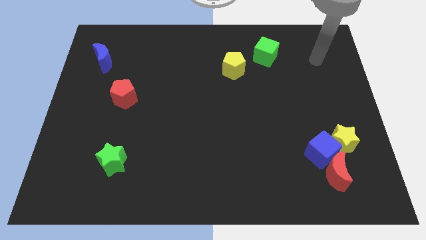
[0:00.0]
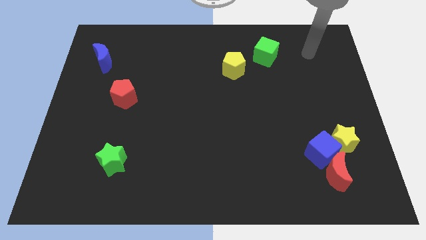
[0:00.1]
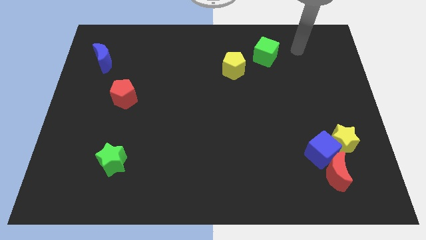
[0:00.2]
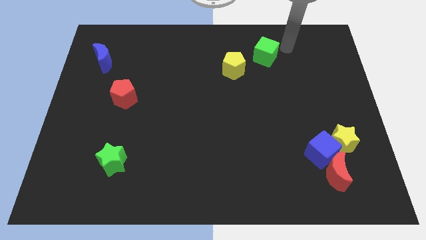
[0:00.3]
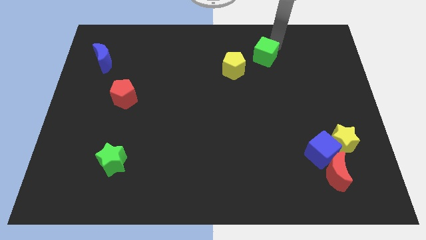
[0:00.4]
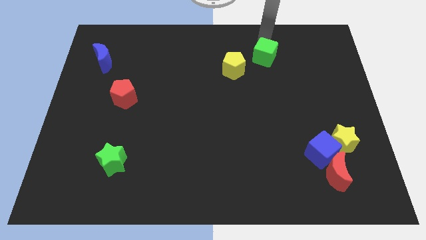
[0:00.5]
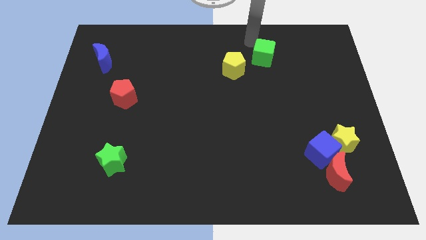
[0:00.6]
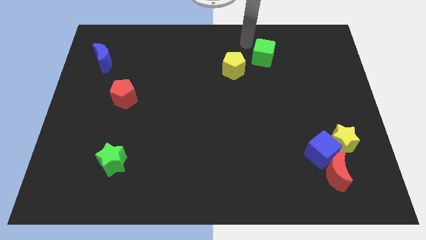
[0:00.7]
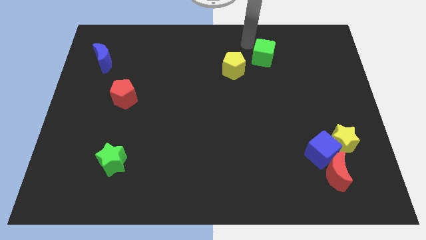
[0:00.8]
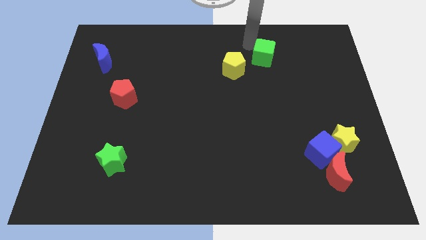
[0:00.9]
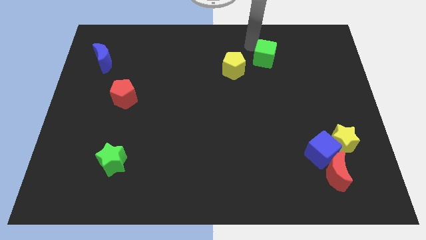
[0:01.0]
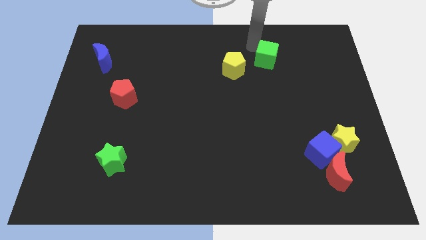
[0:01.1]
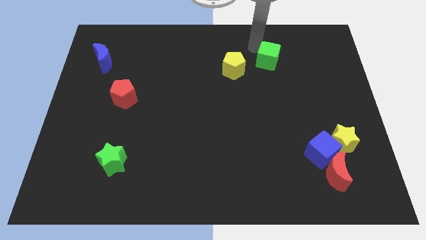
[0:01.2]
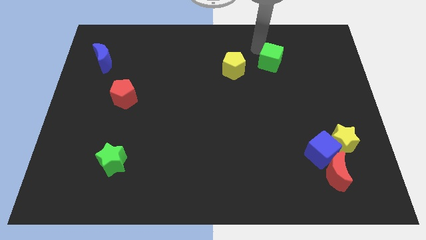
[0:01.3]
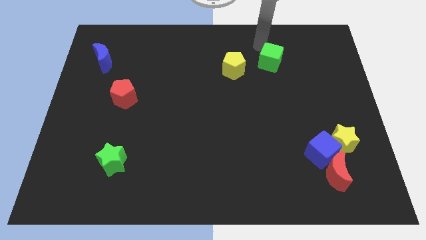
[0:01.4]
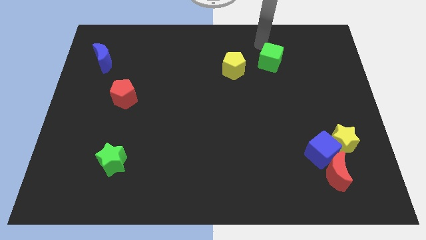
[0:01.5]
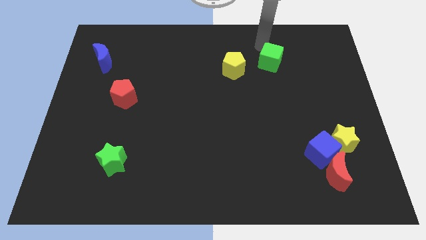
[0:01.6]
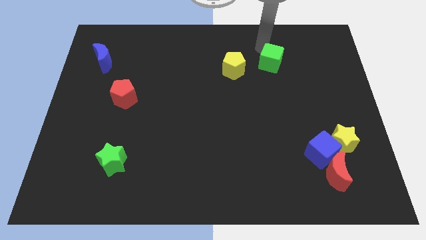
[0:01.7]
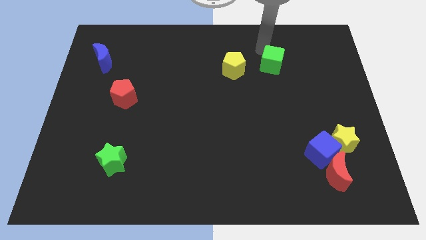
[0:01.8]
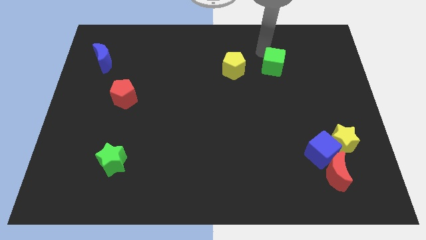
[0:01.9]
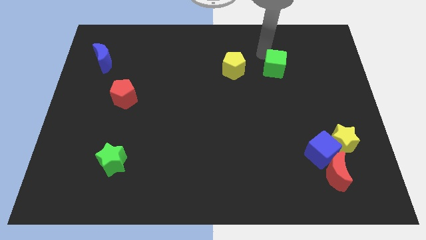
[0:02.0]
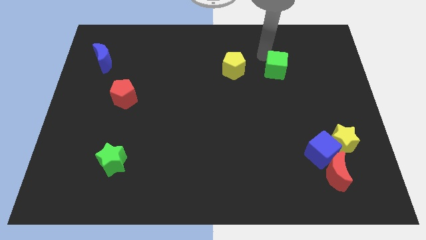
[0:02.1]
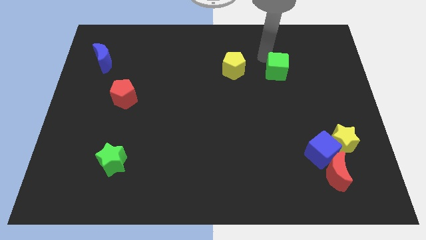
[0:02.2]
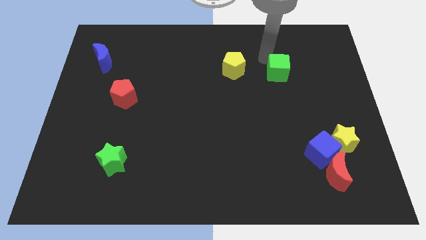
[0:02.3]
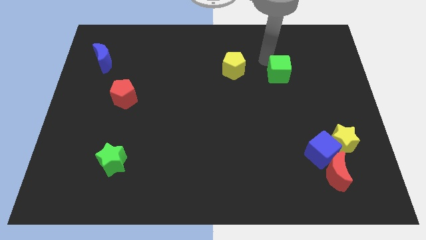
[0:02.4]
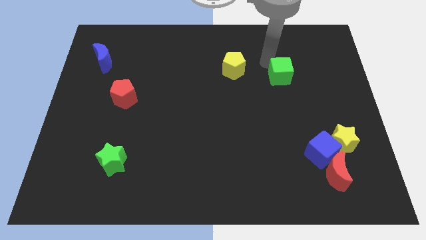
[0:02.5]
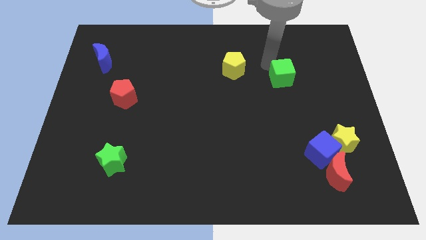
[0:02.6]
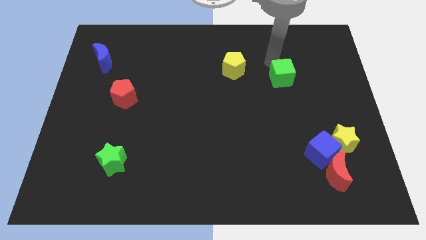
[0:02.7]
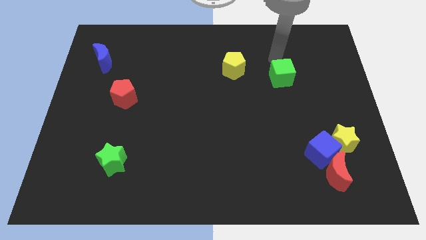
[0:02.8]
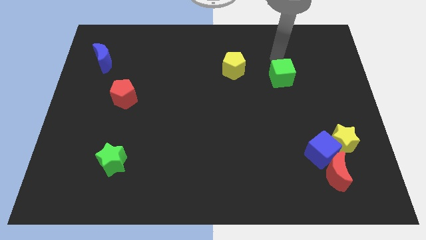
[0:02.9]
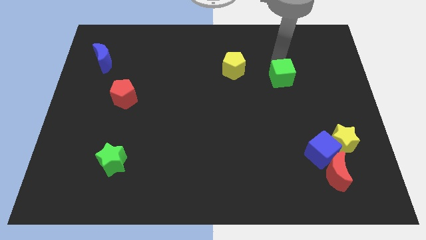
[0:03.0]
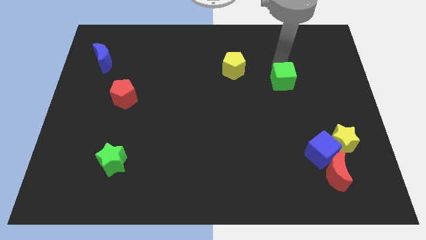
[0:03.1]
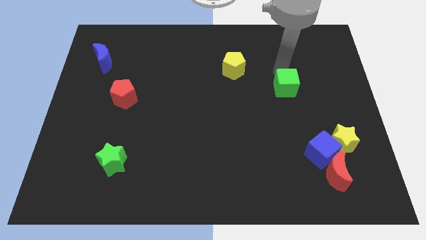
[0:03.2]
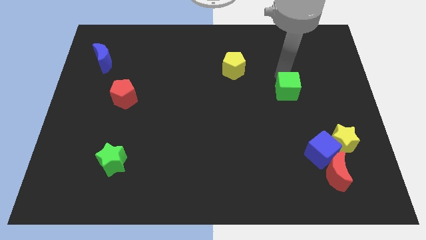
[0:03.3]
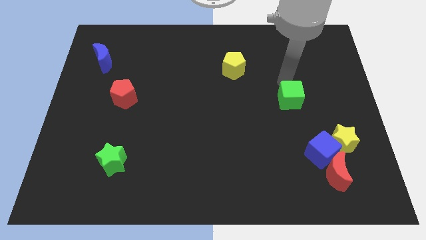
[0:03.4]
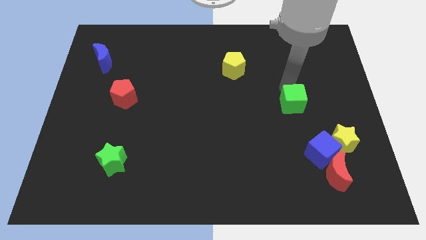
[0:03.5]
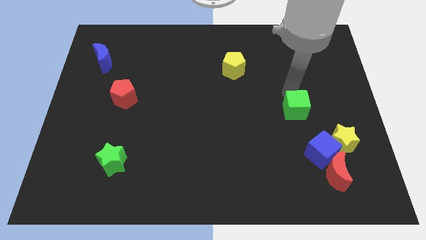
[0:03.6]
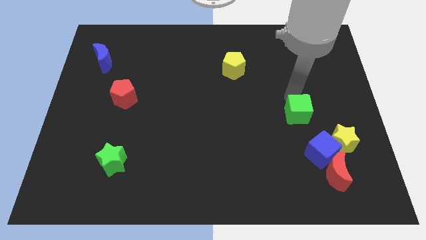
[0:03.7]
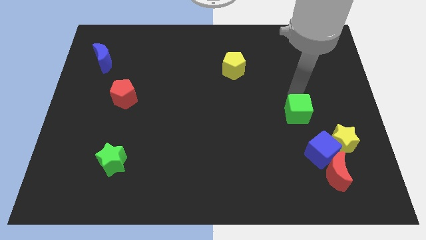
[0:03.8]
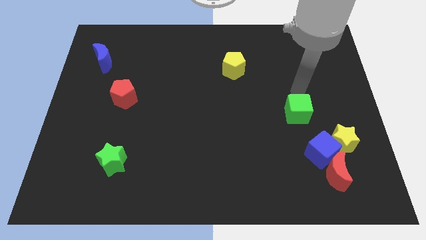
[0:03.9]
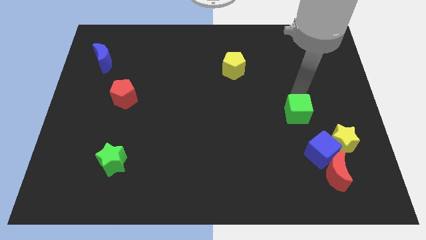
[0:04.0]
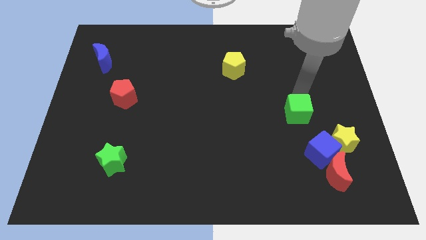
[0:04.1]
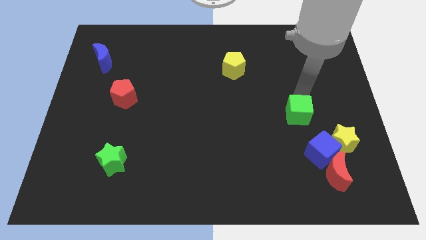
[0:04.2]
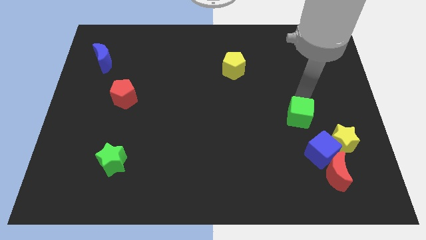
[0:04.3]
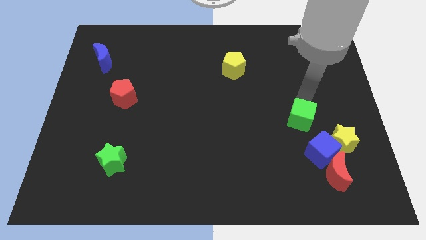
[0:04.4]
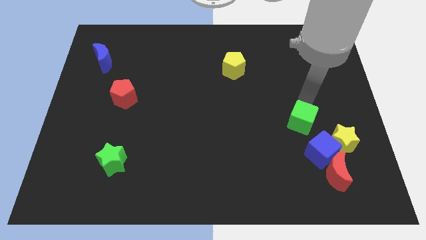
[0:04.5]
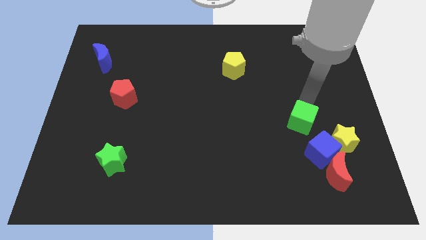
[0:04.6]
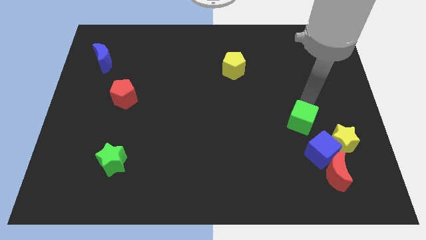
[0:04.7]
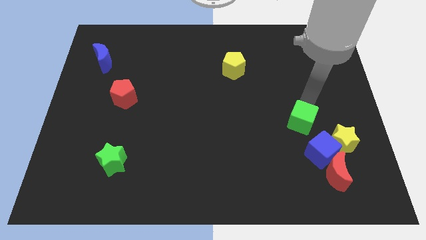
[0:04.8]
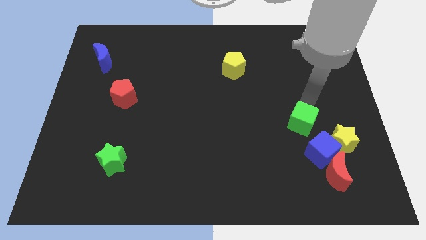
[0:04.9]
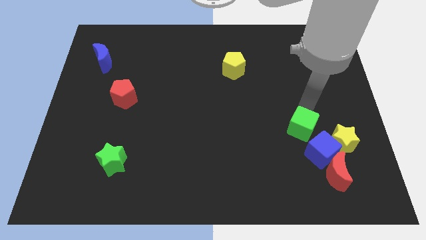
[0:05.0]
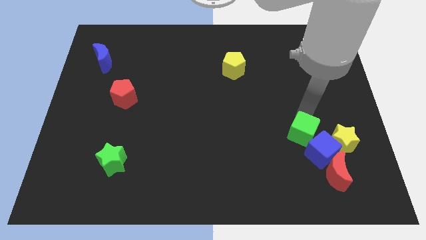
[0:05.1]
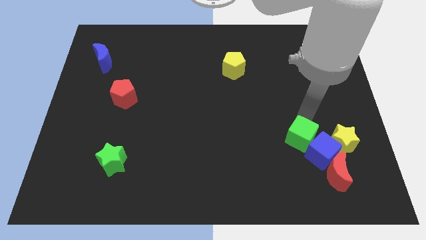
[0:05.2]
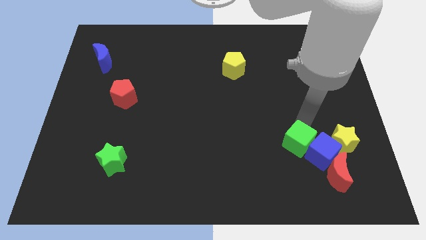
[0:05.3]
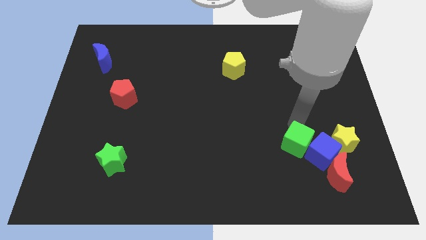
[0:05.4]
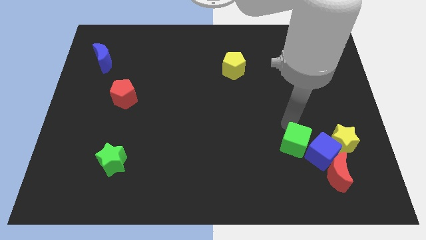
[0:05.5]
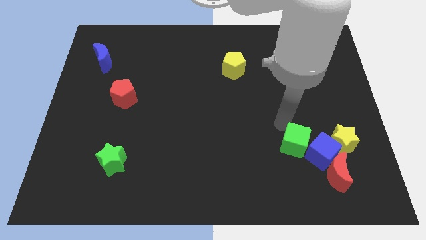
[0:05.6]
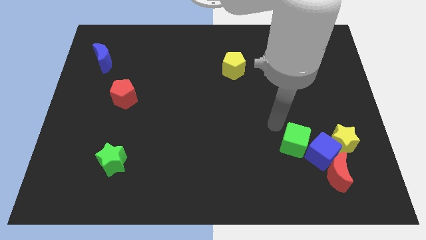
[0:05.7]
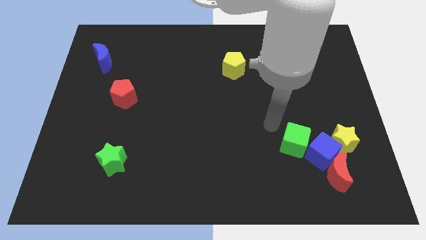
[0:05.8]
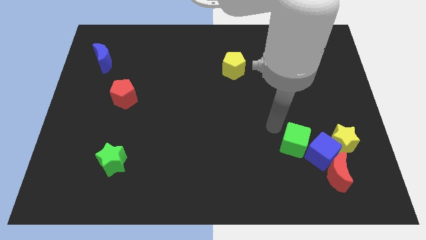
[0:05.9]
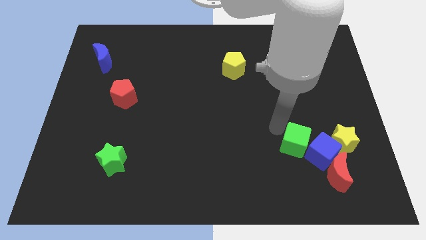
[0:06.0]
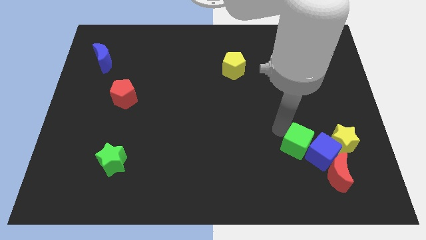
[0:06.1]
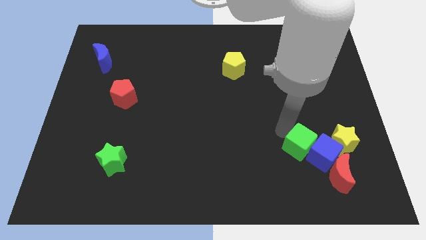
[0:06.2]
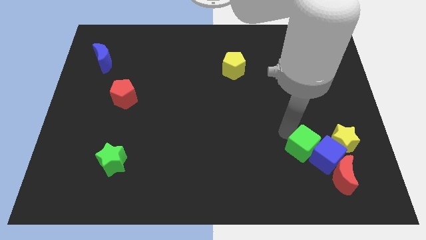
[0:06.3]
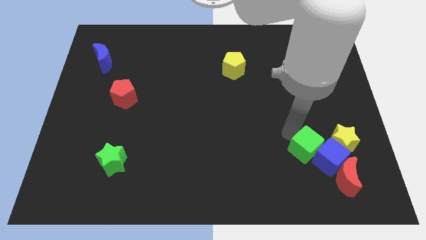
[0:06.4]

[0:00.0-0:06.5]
push the green cube diagonally down and to the left of the yellow star

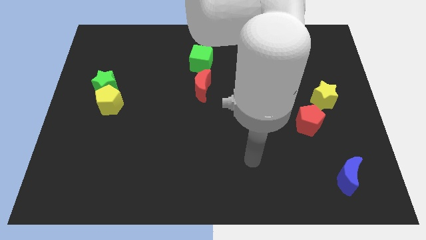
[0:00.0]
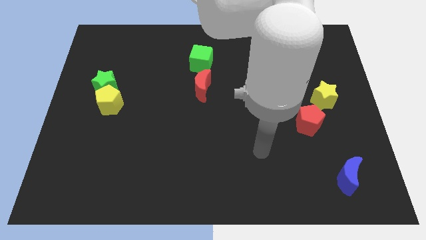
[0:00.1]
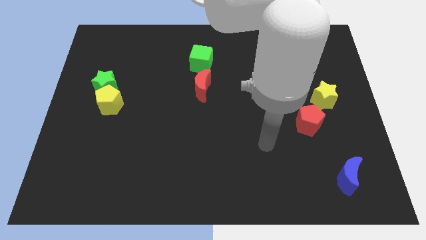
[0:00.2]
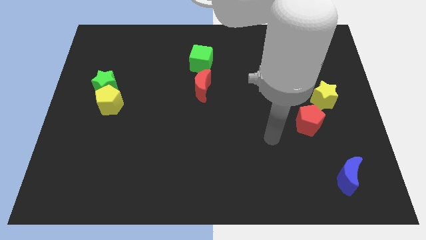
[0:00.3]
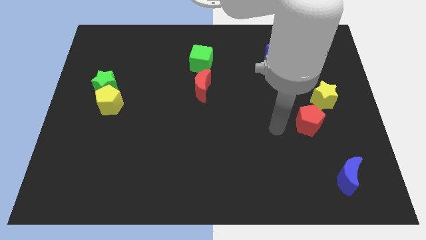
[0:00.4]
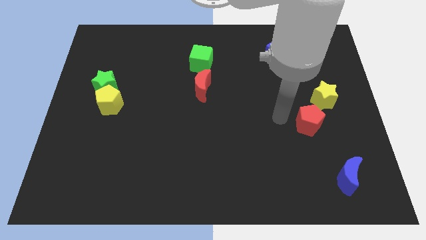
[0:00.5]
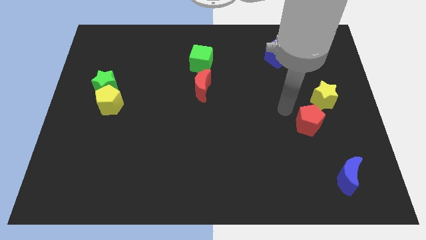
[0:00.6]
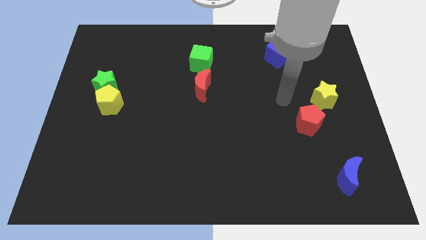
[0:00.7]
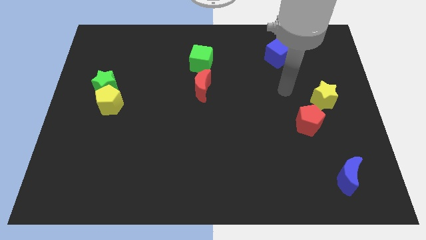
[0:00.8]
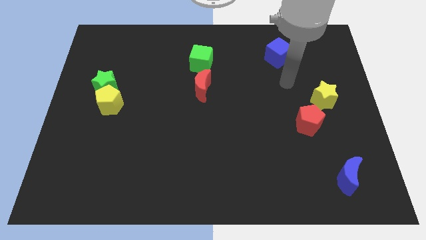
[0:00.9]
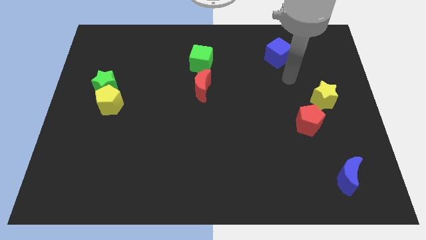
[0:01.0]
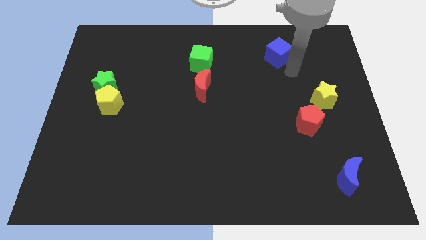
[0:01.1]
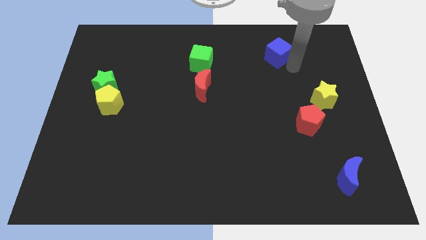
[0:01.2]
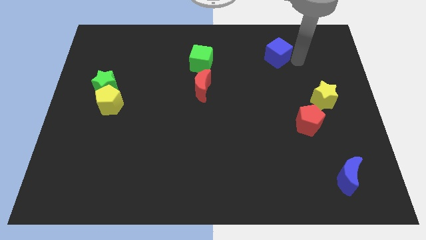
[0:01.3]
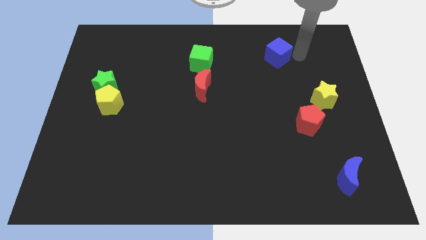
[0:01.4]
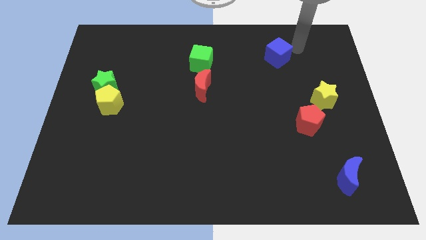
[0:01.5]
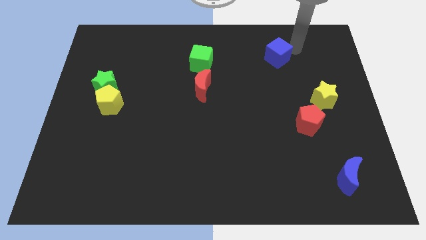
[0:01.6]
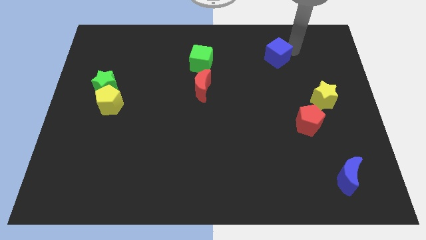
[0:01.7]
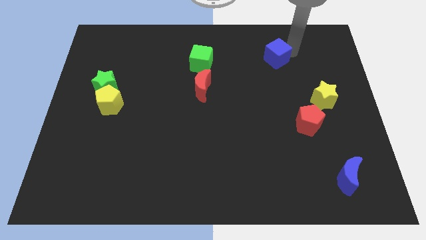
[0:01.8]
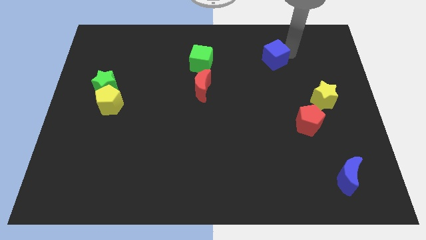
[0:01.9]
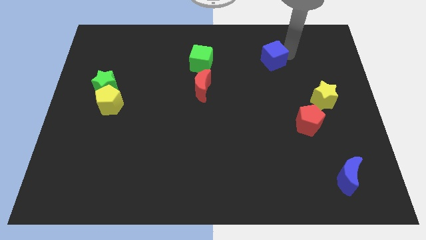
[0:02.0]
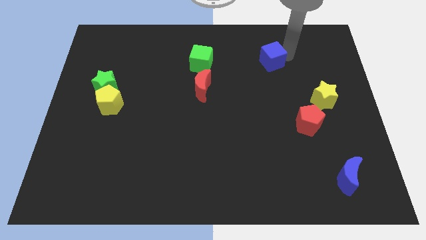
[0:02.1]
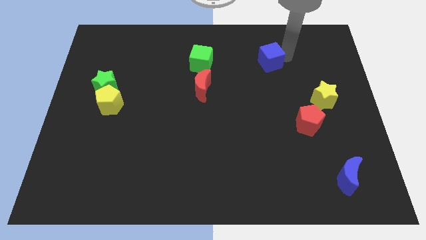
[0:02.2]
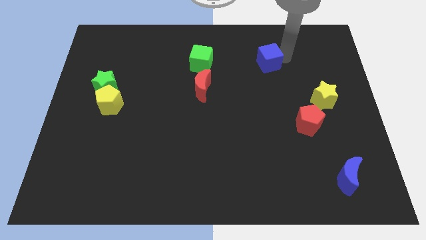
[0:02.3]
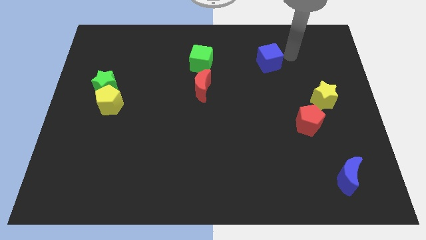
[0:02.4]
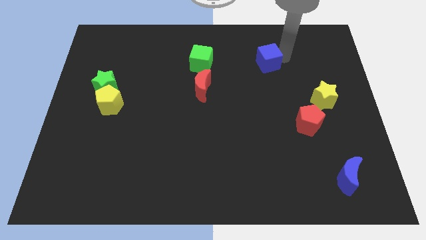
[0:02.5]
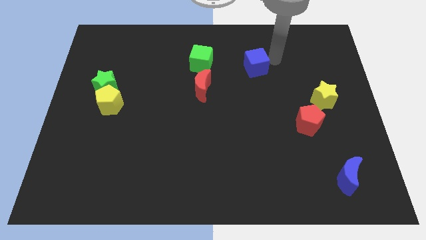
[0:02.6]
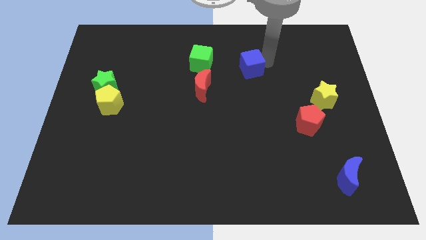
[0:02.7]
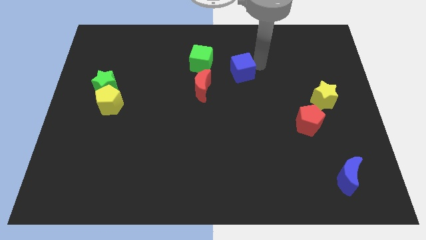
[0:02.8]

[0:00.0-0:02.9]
put the blue cube to the top right of the red moon
